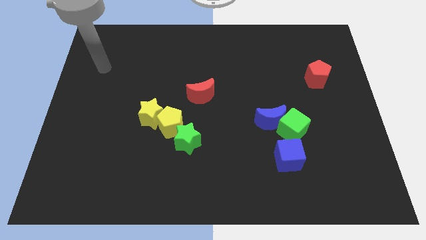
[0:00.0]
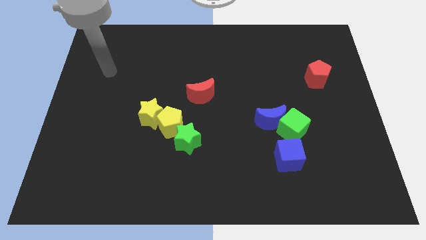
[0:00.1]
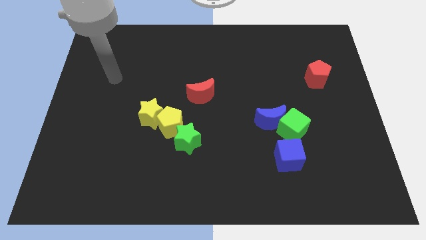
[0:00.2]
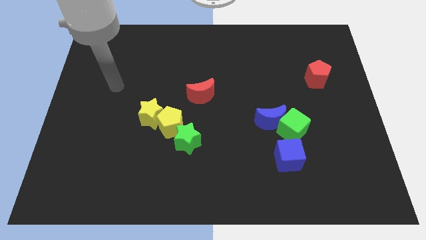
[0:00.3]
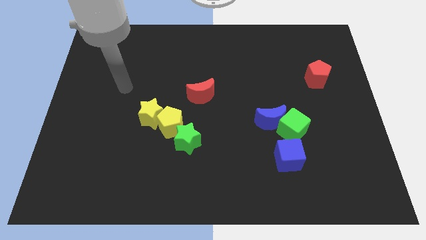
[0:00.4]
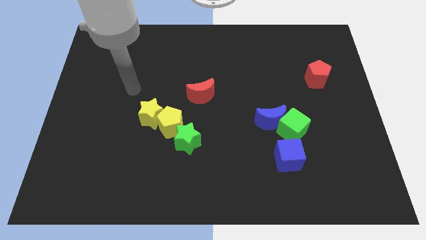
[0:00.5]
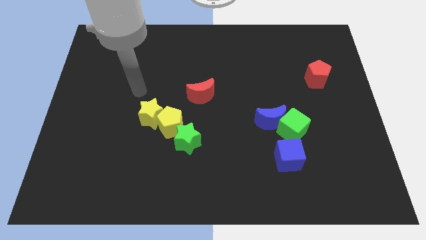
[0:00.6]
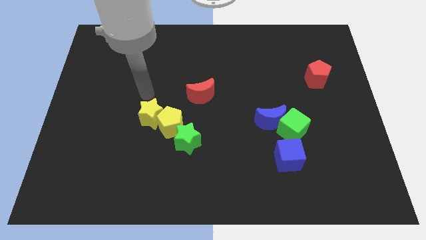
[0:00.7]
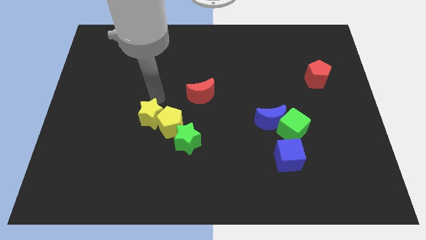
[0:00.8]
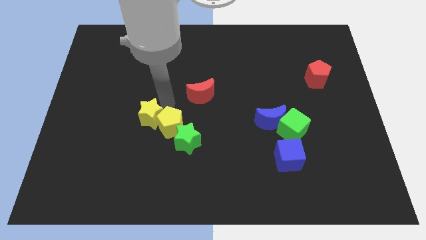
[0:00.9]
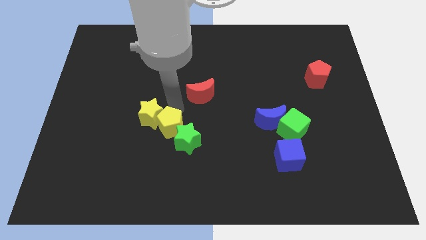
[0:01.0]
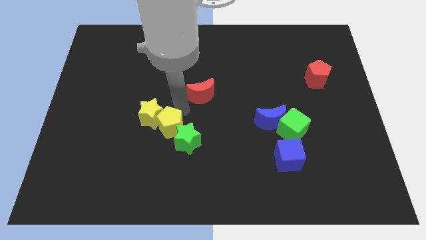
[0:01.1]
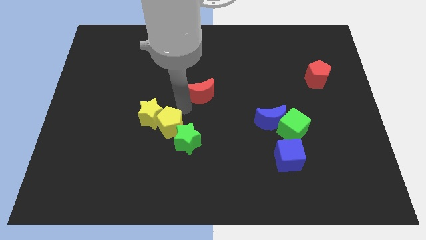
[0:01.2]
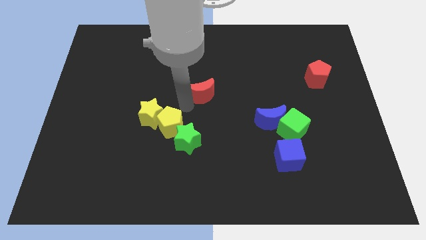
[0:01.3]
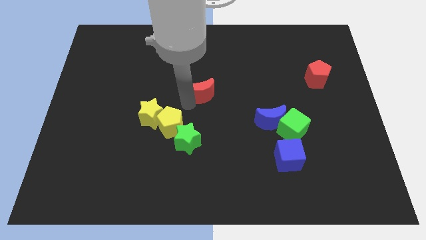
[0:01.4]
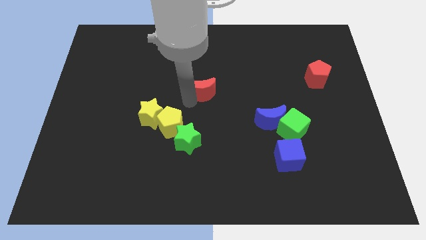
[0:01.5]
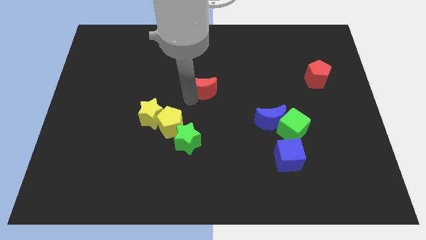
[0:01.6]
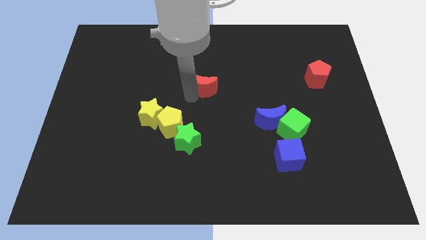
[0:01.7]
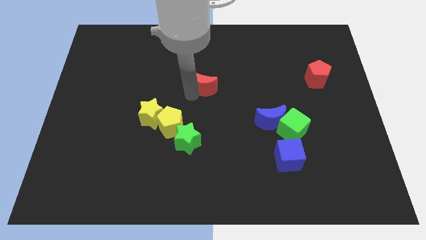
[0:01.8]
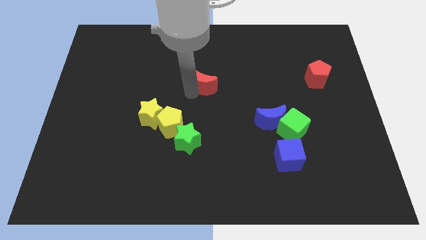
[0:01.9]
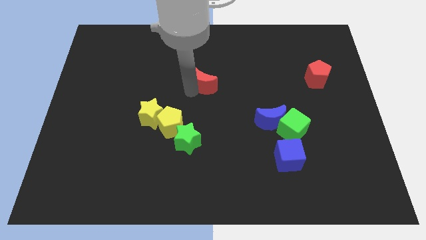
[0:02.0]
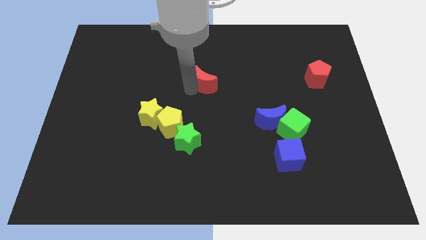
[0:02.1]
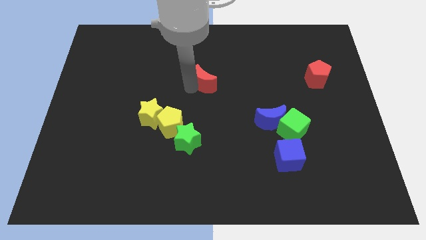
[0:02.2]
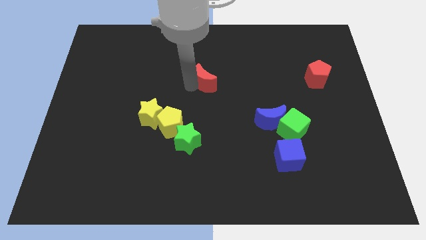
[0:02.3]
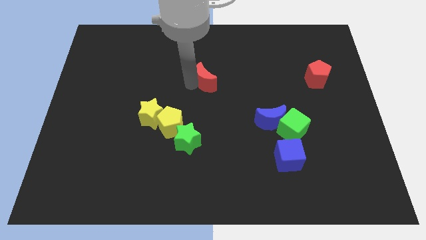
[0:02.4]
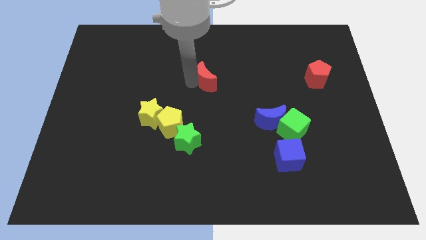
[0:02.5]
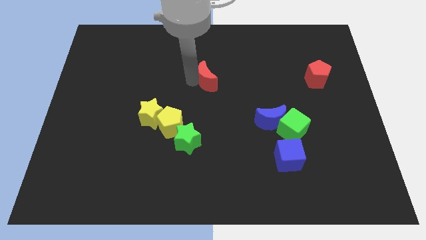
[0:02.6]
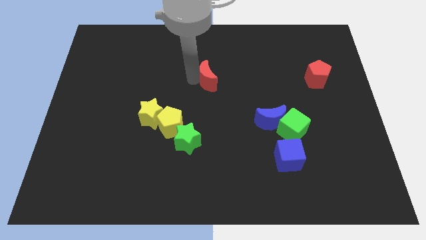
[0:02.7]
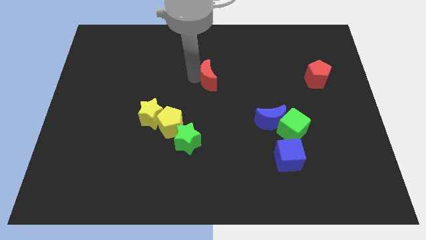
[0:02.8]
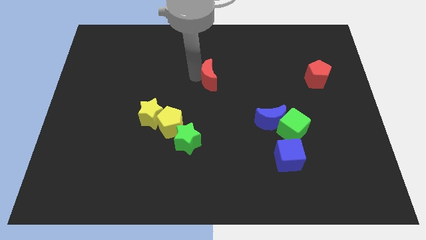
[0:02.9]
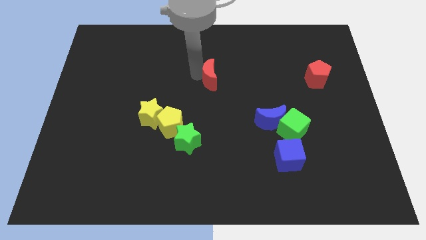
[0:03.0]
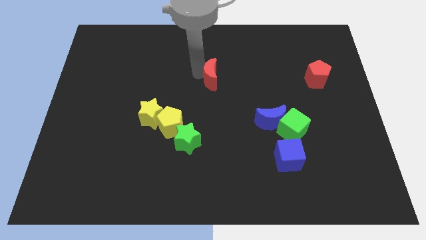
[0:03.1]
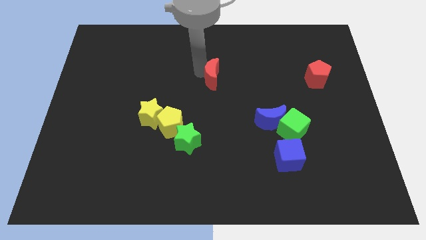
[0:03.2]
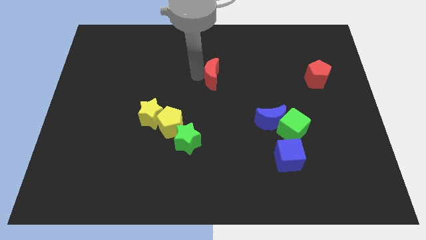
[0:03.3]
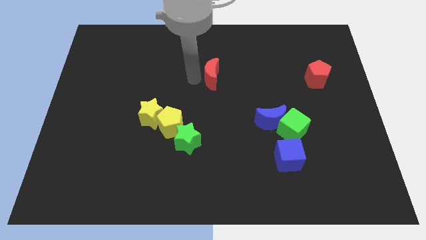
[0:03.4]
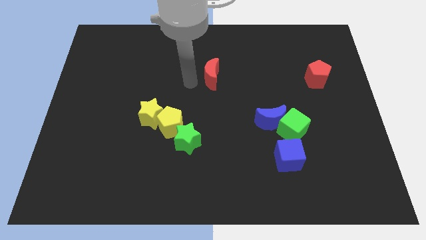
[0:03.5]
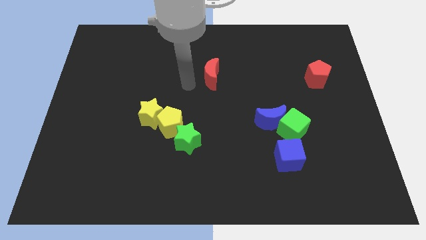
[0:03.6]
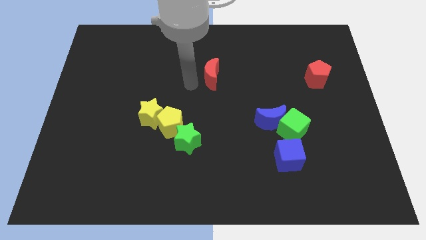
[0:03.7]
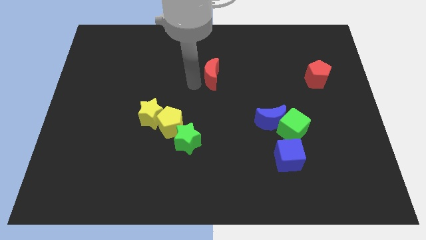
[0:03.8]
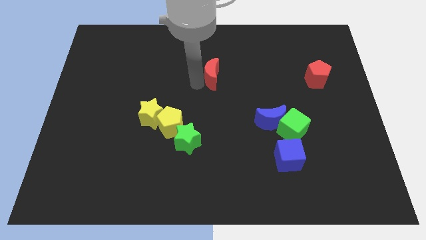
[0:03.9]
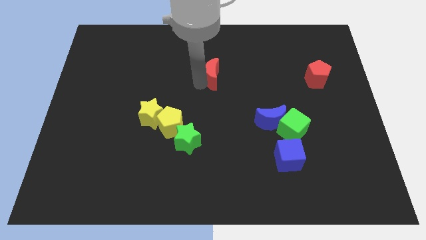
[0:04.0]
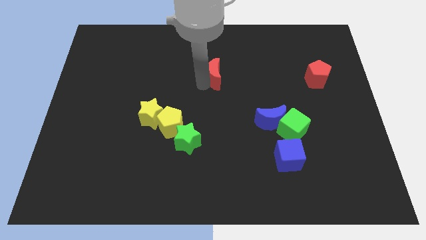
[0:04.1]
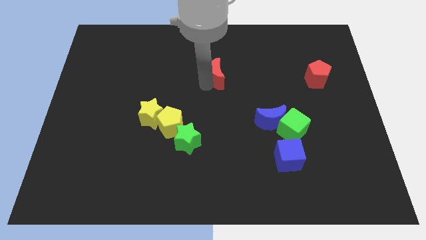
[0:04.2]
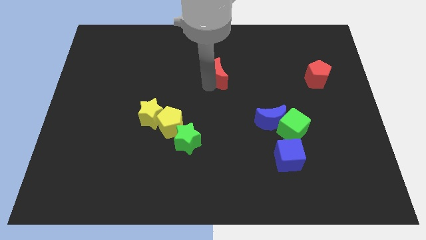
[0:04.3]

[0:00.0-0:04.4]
slide the red moon up and to the right diagonally a little

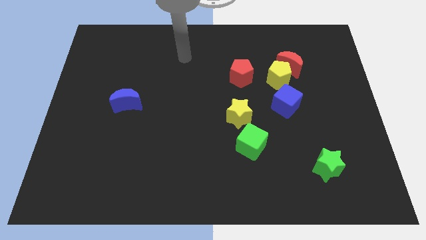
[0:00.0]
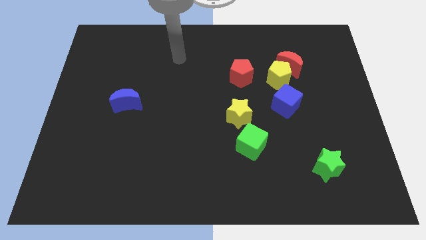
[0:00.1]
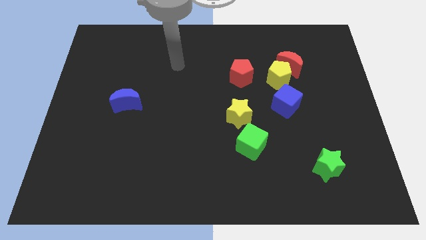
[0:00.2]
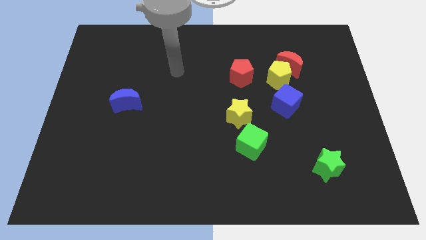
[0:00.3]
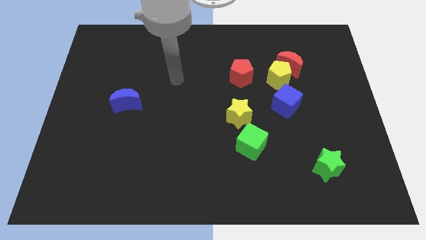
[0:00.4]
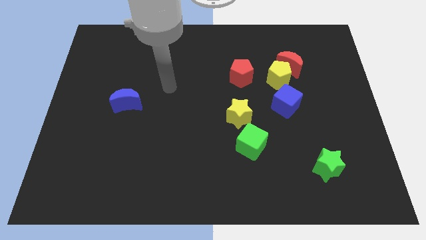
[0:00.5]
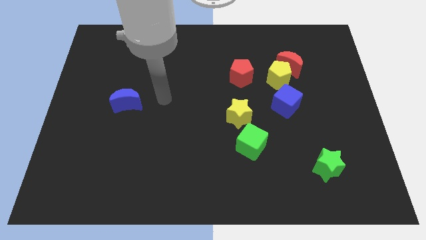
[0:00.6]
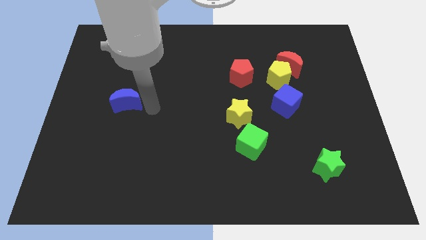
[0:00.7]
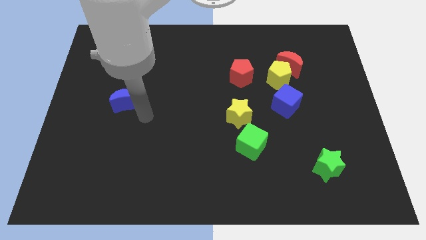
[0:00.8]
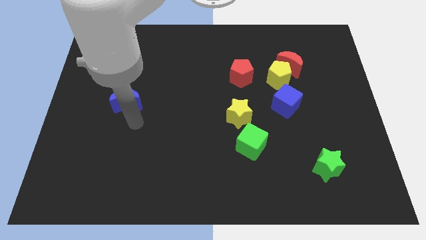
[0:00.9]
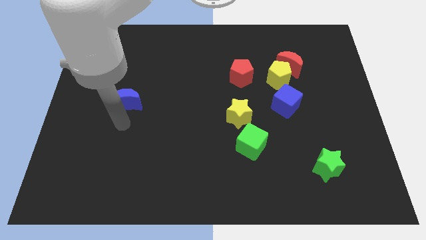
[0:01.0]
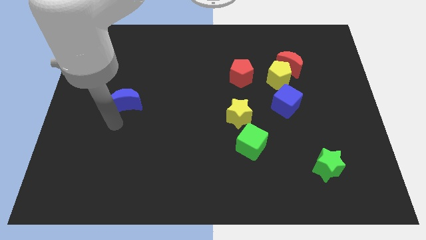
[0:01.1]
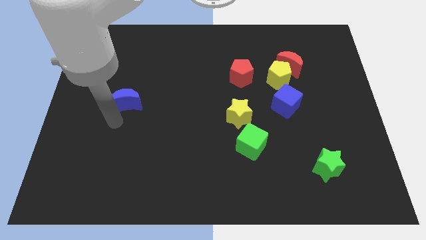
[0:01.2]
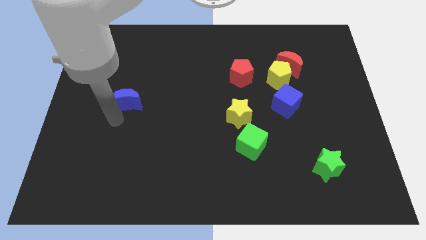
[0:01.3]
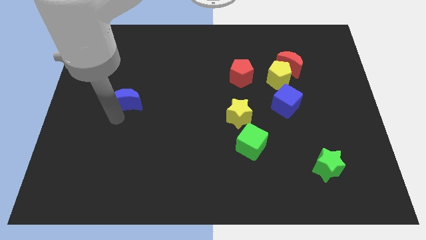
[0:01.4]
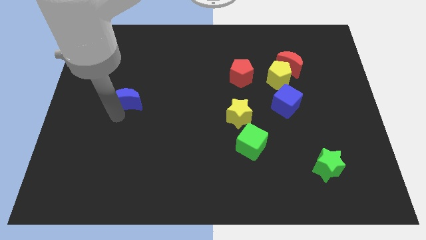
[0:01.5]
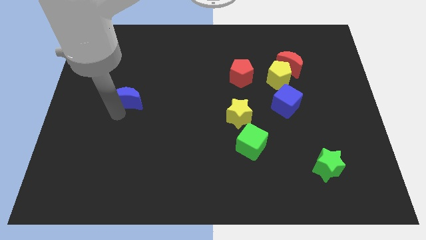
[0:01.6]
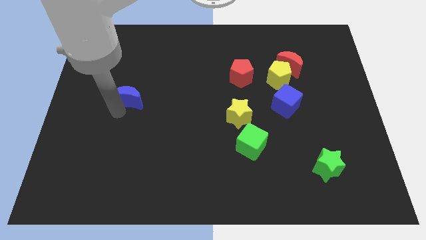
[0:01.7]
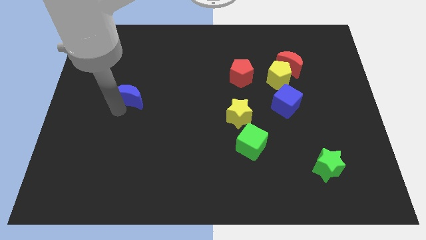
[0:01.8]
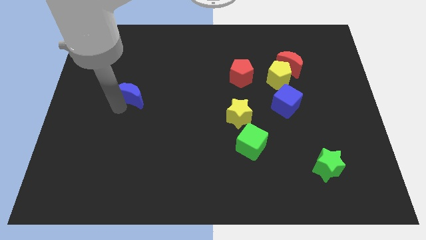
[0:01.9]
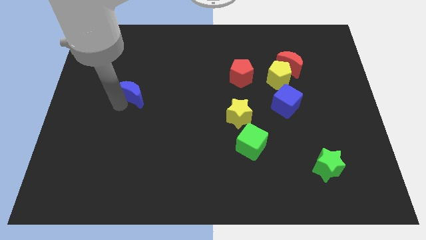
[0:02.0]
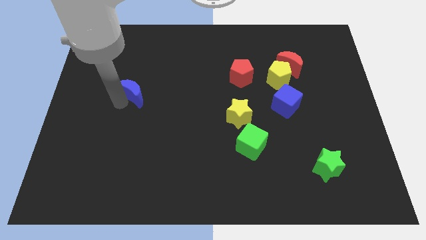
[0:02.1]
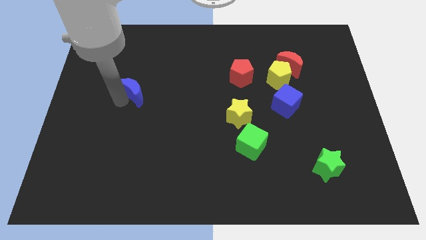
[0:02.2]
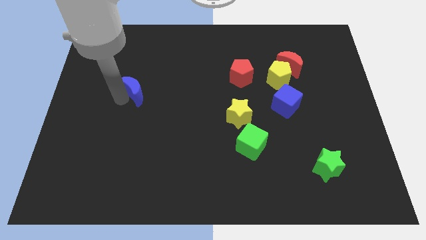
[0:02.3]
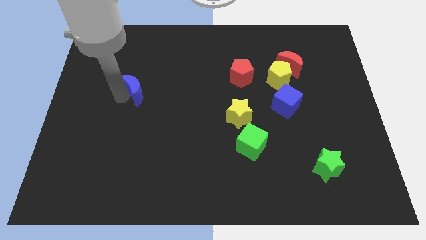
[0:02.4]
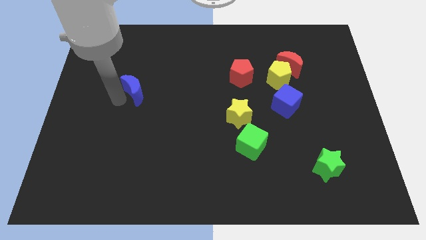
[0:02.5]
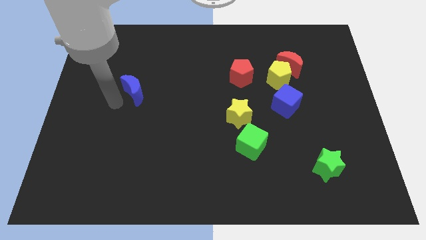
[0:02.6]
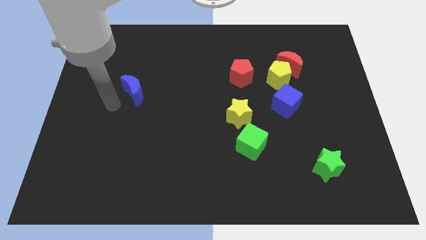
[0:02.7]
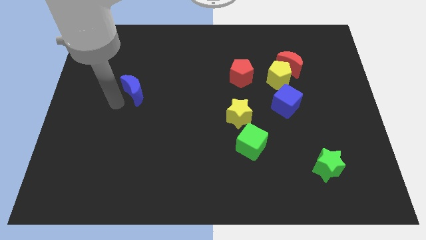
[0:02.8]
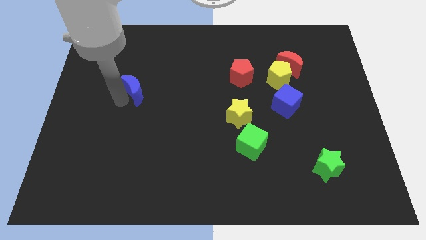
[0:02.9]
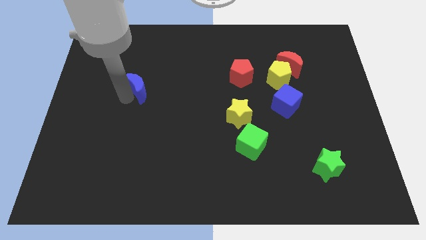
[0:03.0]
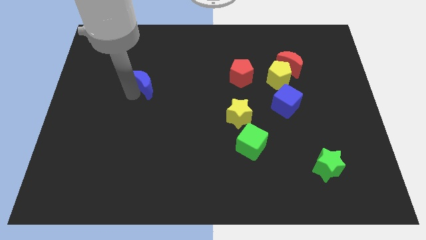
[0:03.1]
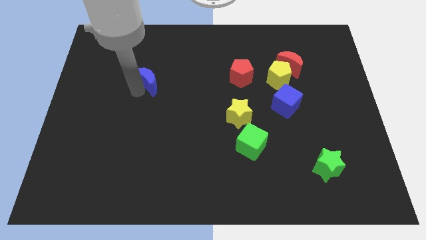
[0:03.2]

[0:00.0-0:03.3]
move the blue moon a little bit diagonally upwards and to the right

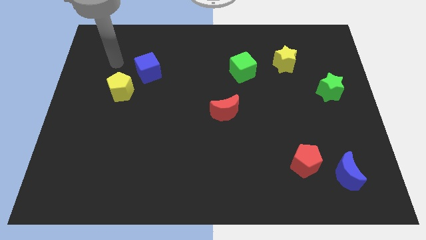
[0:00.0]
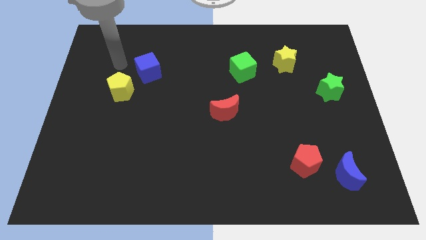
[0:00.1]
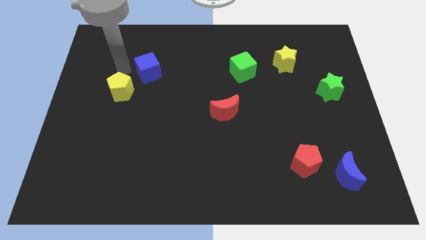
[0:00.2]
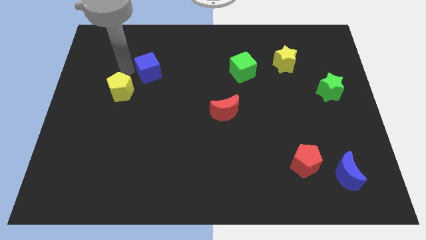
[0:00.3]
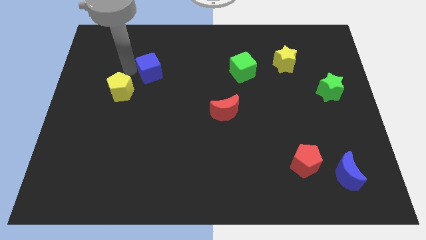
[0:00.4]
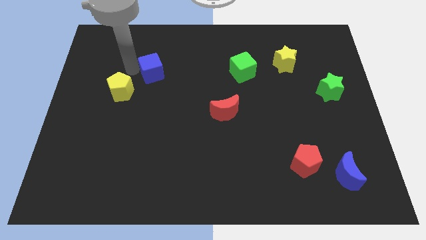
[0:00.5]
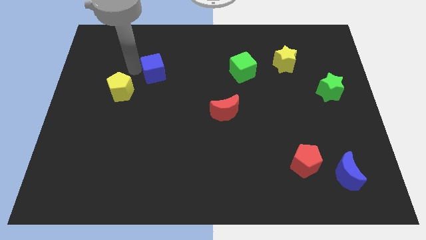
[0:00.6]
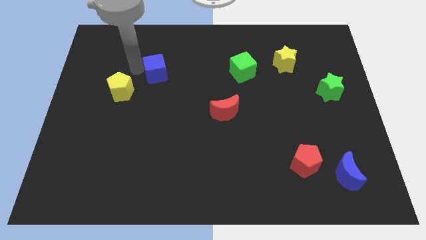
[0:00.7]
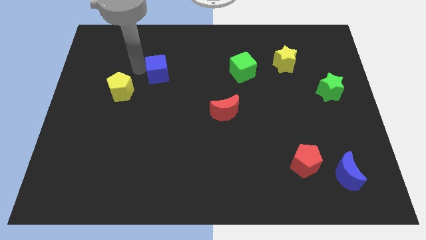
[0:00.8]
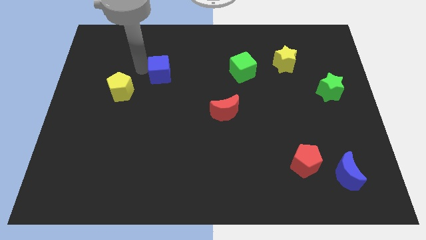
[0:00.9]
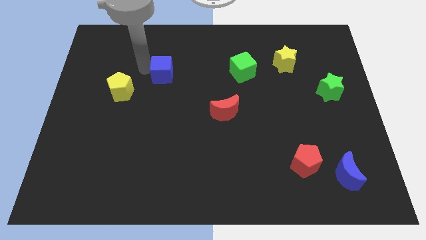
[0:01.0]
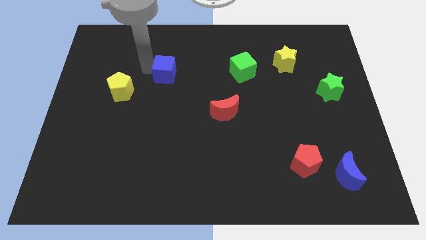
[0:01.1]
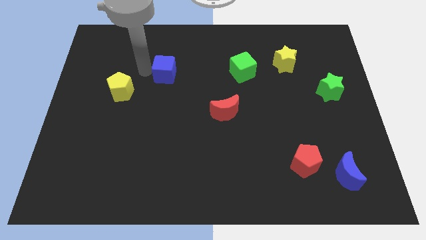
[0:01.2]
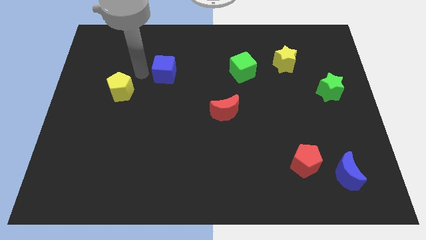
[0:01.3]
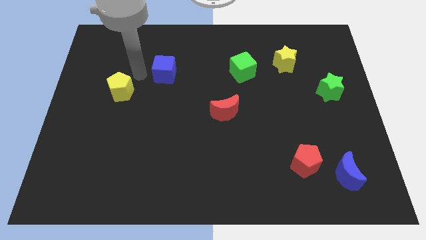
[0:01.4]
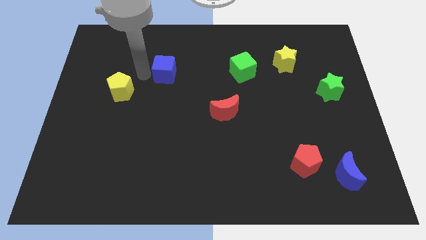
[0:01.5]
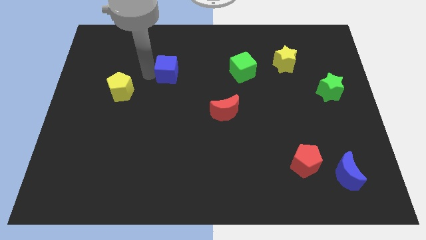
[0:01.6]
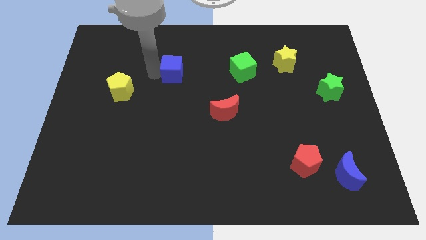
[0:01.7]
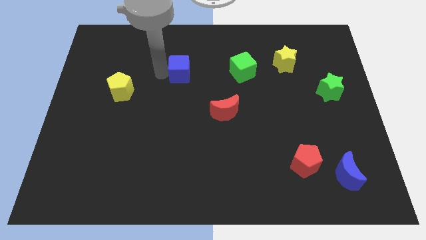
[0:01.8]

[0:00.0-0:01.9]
slightly move the blue cube to the right
